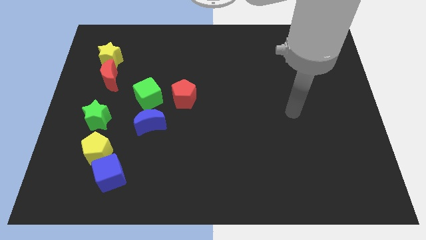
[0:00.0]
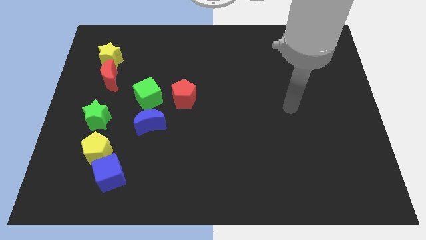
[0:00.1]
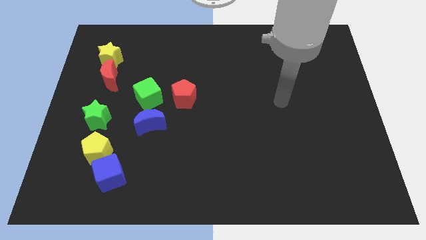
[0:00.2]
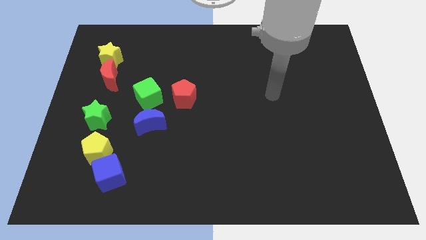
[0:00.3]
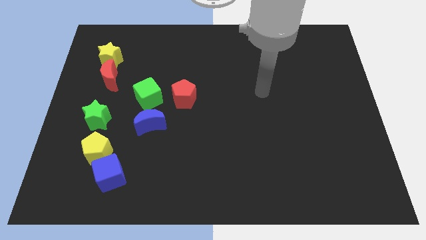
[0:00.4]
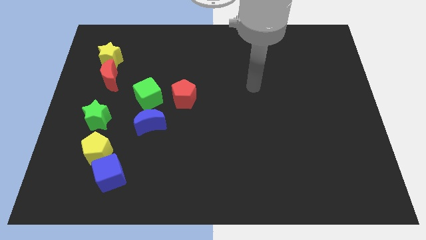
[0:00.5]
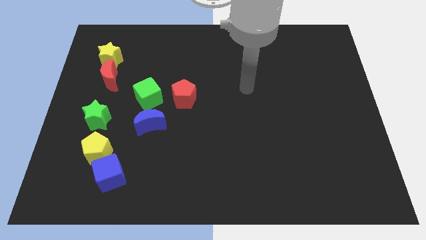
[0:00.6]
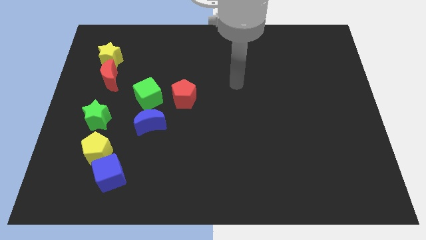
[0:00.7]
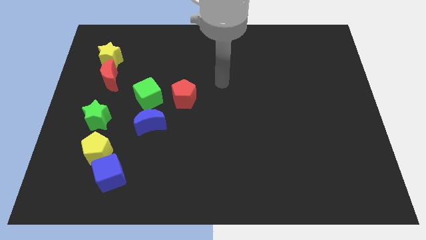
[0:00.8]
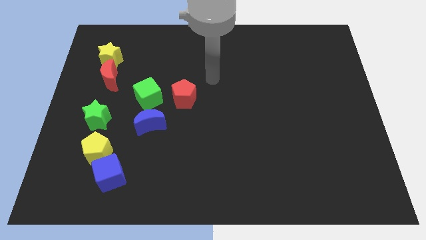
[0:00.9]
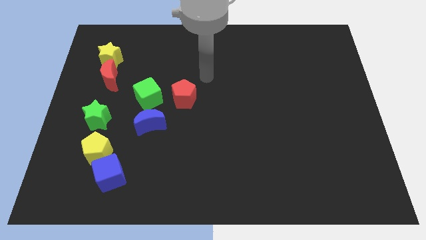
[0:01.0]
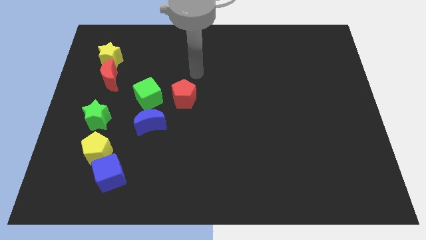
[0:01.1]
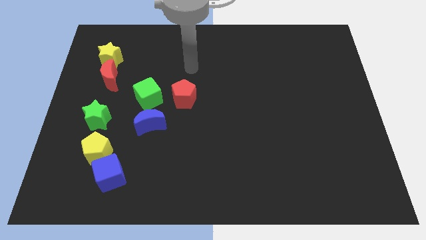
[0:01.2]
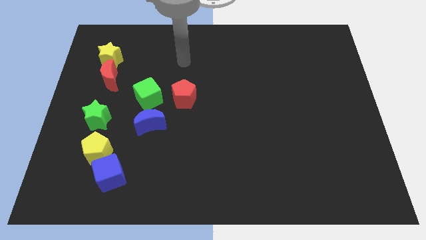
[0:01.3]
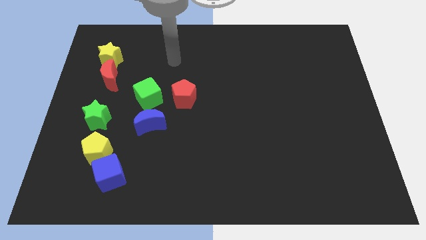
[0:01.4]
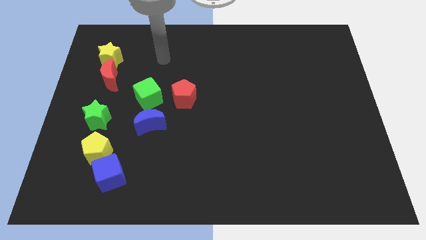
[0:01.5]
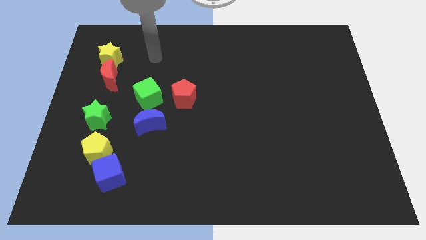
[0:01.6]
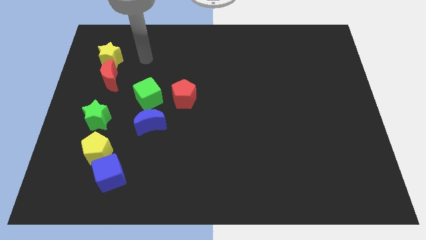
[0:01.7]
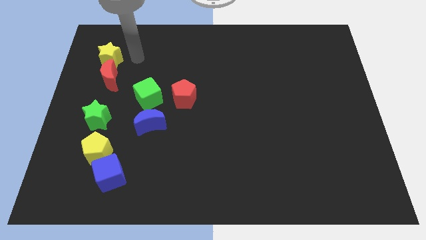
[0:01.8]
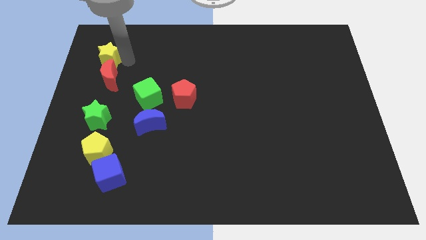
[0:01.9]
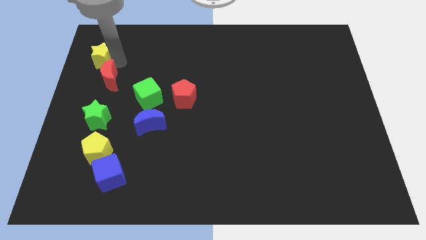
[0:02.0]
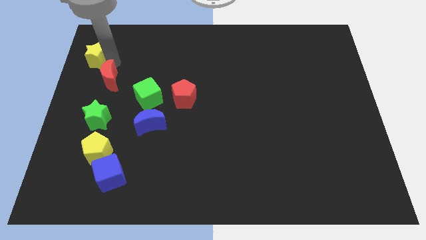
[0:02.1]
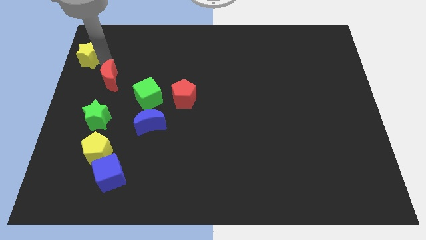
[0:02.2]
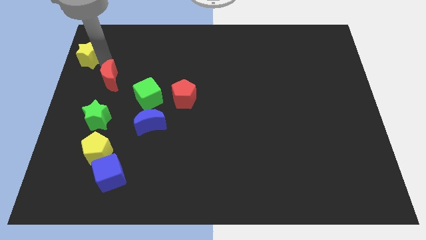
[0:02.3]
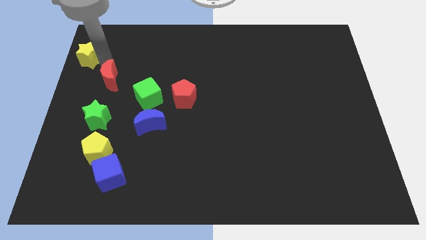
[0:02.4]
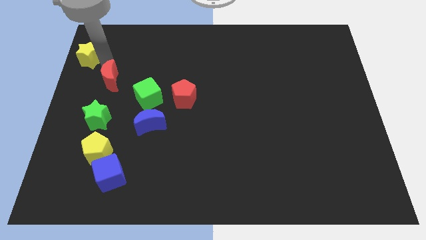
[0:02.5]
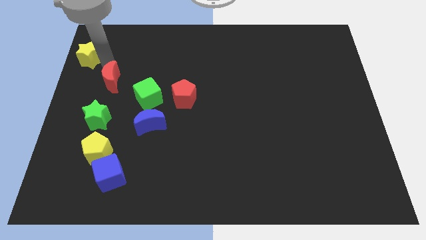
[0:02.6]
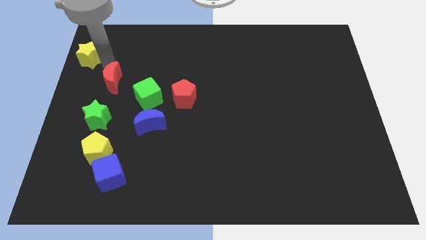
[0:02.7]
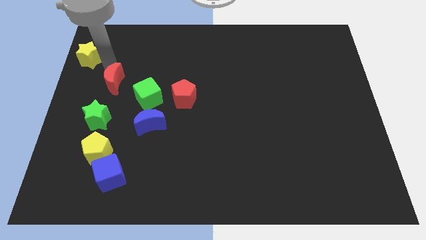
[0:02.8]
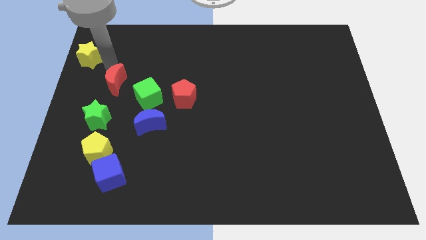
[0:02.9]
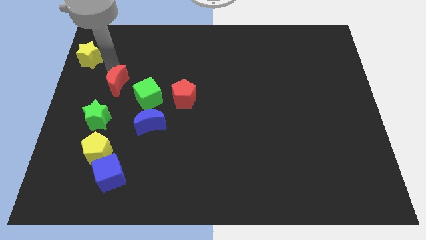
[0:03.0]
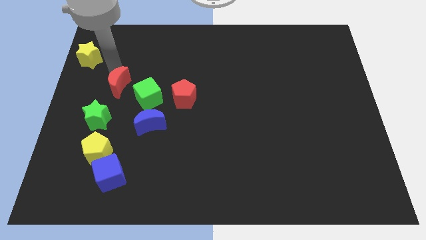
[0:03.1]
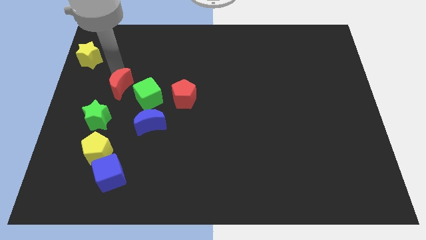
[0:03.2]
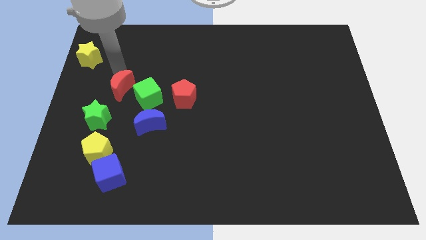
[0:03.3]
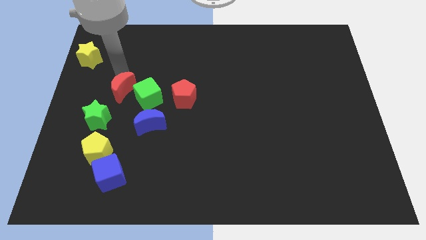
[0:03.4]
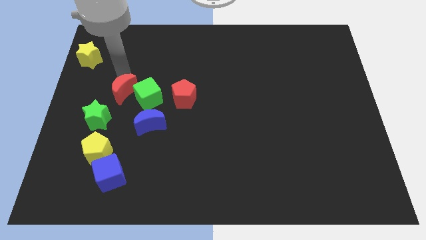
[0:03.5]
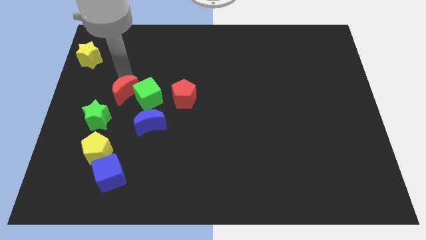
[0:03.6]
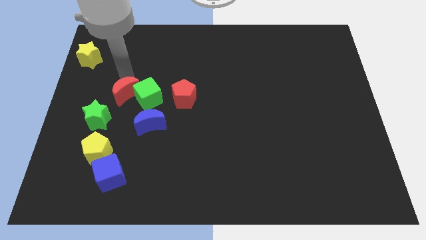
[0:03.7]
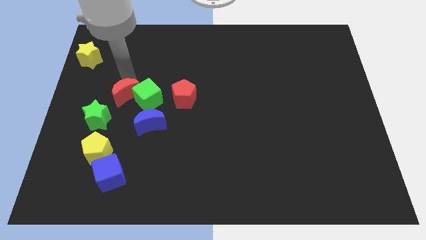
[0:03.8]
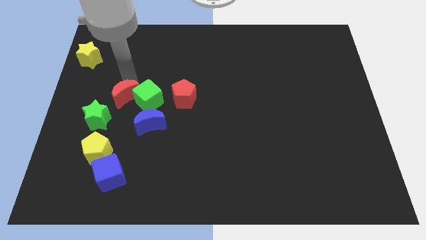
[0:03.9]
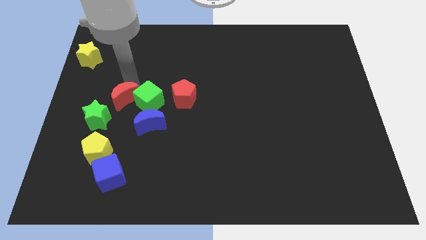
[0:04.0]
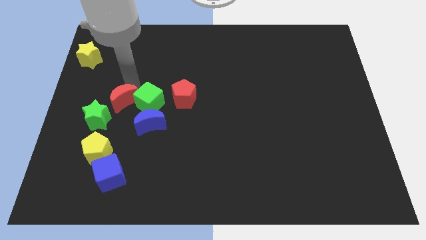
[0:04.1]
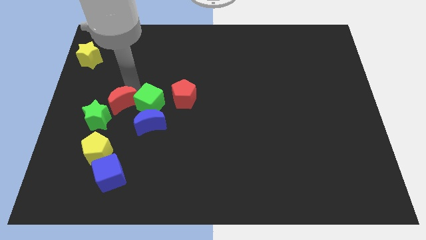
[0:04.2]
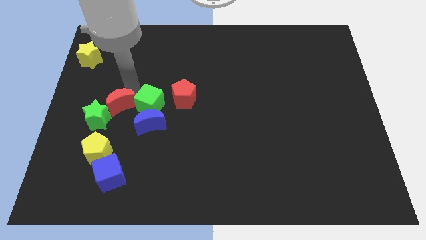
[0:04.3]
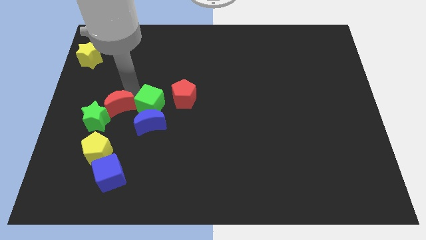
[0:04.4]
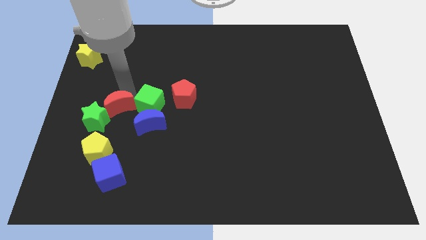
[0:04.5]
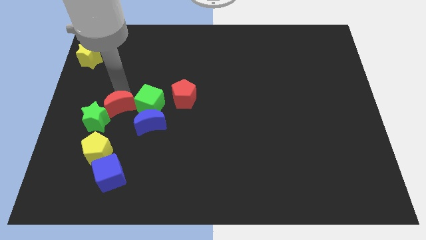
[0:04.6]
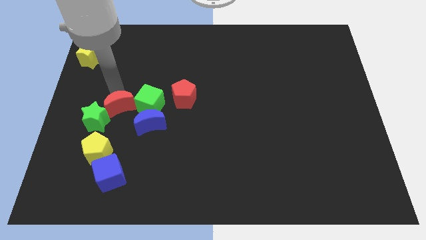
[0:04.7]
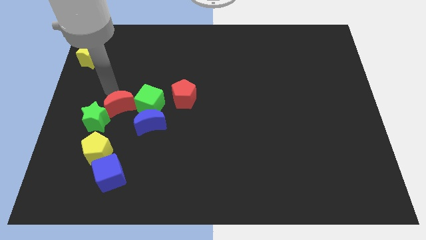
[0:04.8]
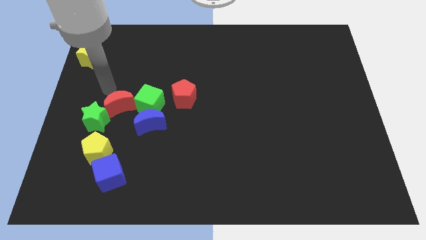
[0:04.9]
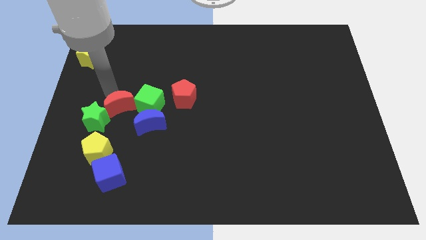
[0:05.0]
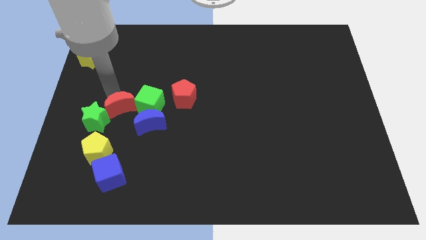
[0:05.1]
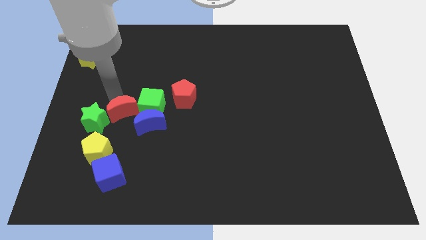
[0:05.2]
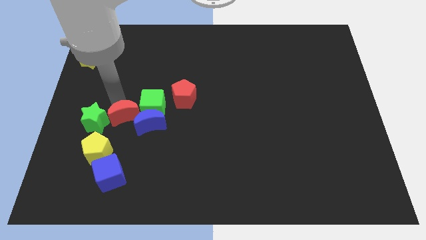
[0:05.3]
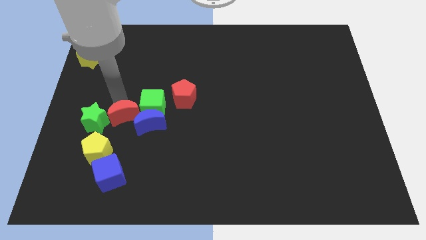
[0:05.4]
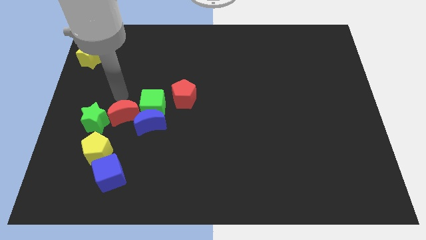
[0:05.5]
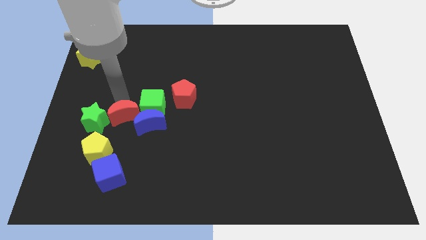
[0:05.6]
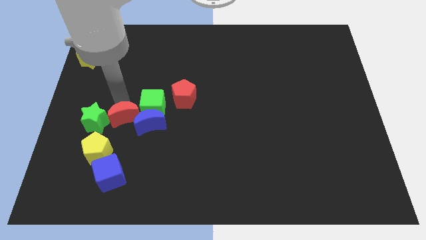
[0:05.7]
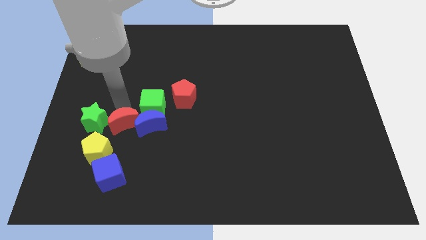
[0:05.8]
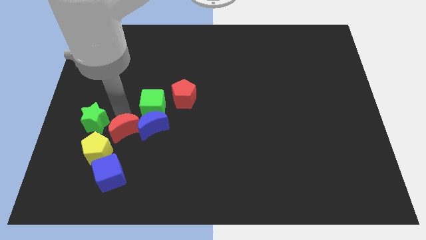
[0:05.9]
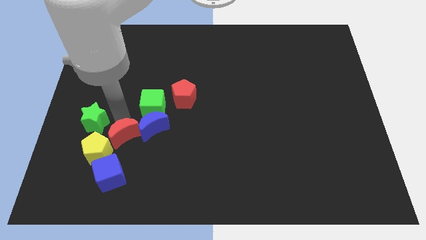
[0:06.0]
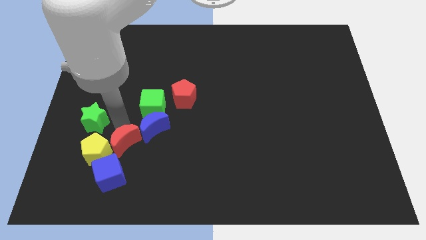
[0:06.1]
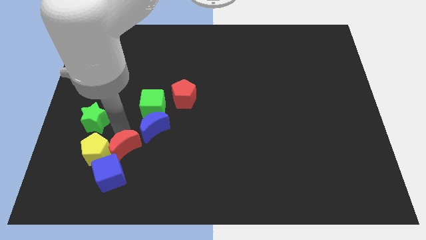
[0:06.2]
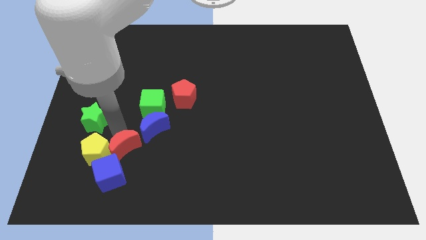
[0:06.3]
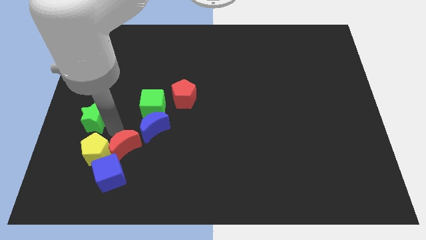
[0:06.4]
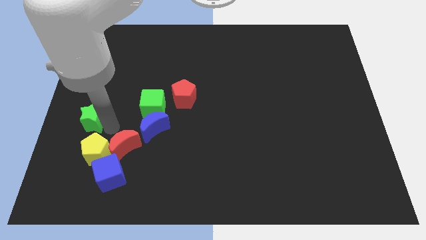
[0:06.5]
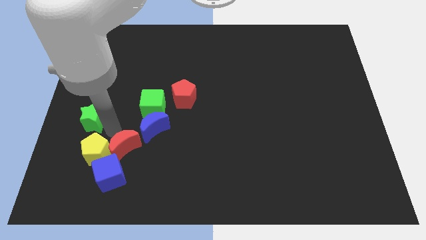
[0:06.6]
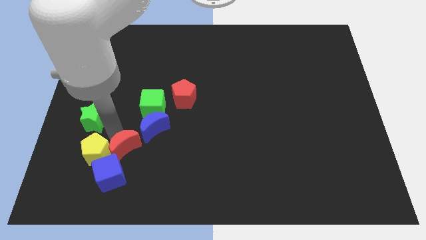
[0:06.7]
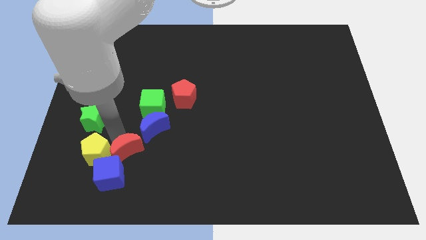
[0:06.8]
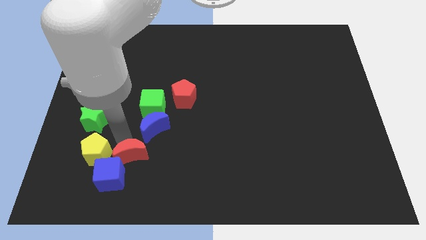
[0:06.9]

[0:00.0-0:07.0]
push the red moon to the blue cube

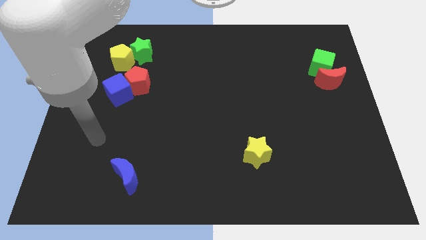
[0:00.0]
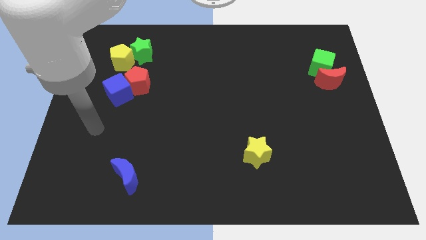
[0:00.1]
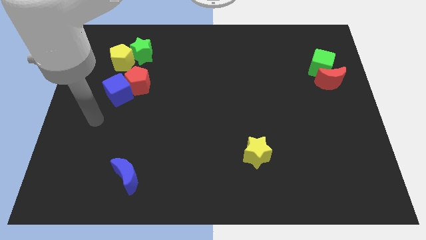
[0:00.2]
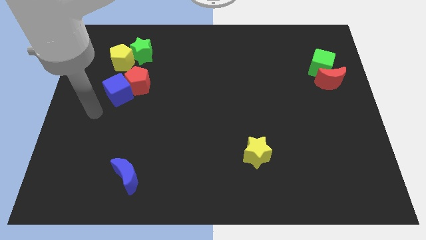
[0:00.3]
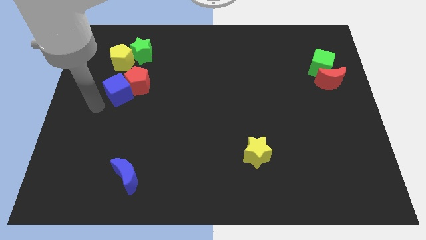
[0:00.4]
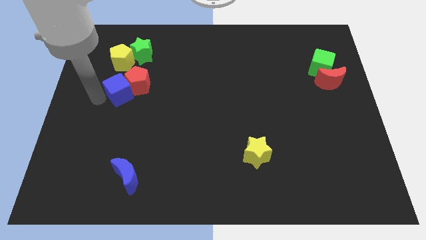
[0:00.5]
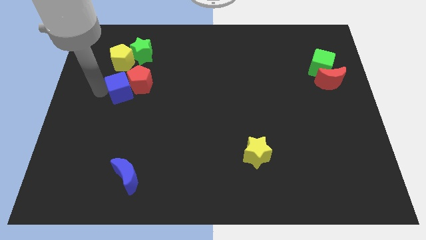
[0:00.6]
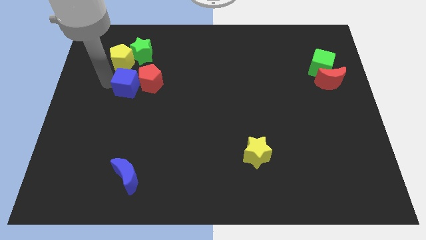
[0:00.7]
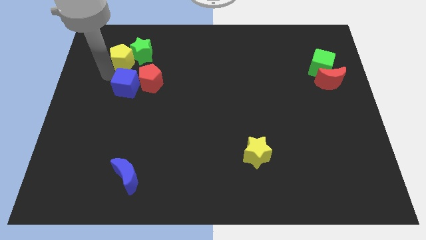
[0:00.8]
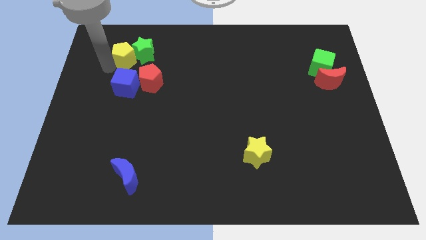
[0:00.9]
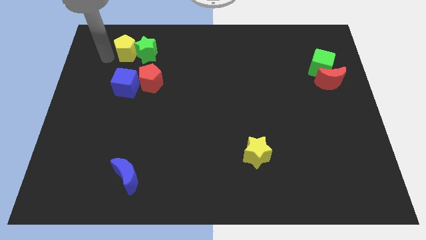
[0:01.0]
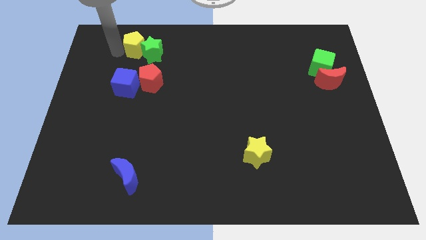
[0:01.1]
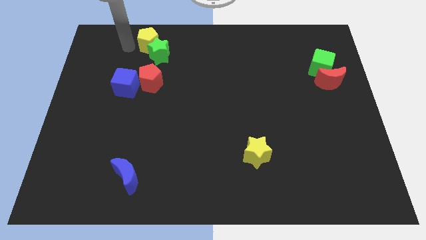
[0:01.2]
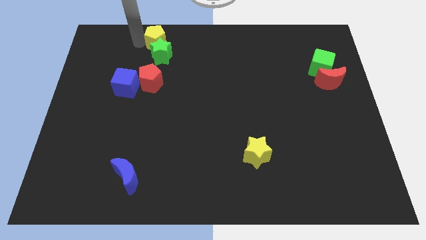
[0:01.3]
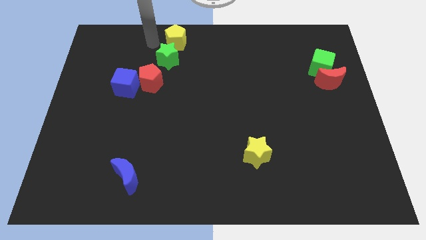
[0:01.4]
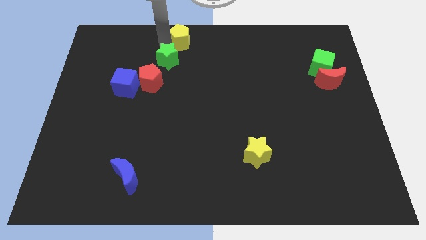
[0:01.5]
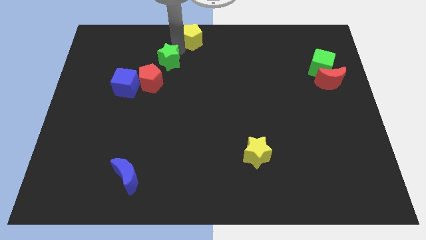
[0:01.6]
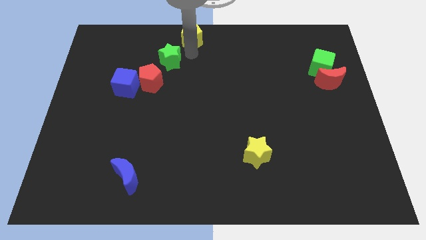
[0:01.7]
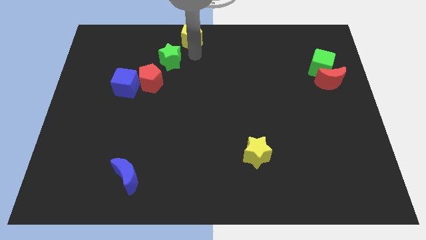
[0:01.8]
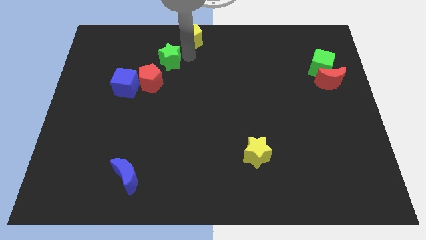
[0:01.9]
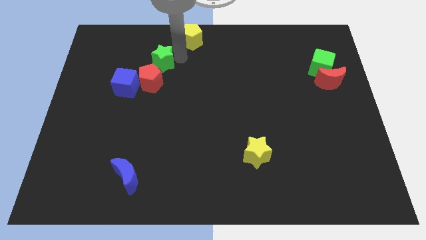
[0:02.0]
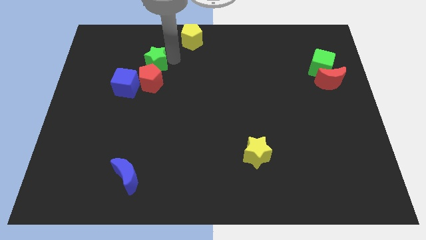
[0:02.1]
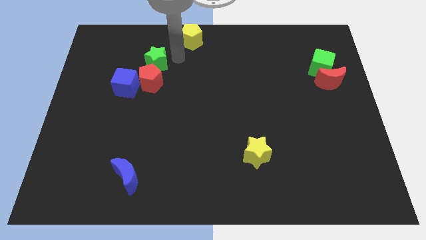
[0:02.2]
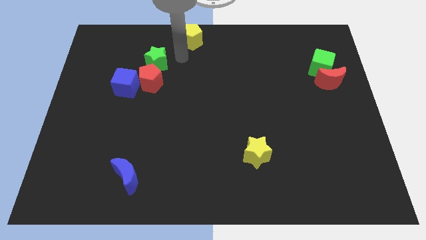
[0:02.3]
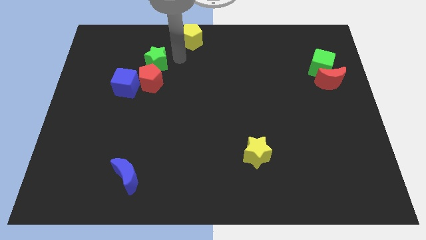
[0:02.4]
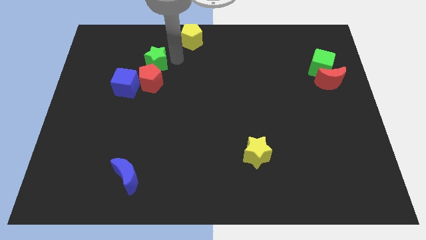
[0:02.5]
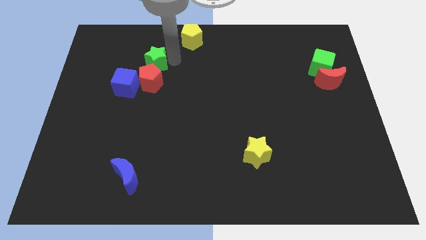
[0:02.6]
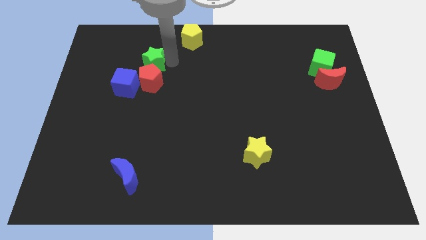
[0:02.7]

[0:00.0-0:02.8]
slide the green star towards the red pentagon
